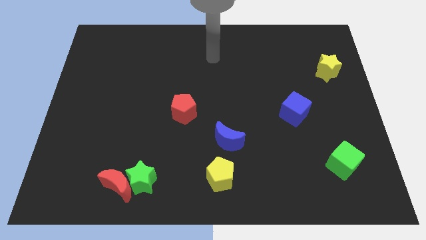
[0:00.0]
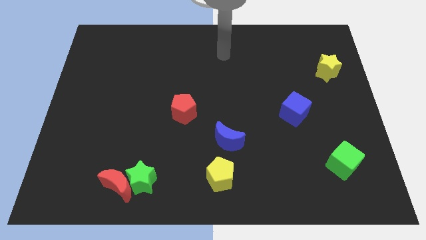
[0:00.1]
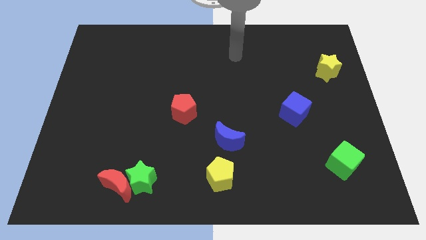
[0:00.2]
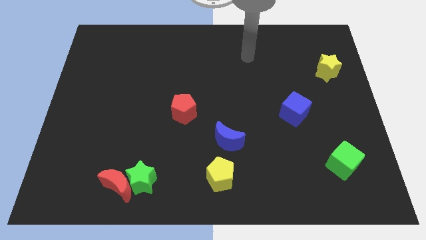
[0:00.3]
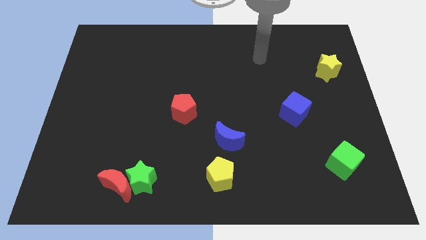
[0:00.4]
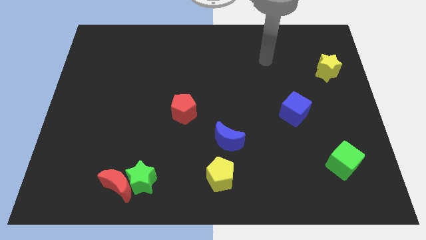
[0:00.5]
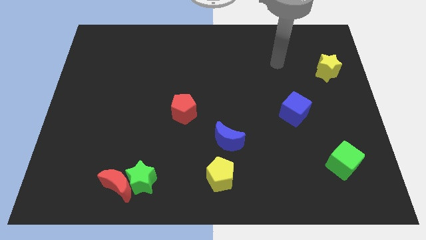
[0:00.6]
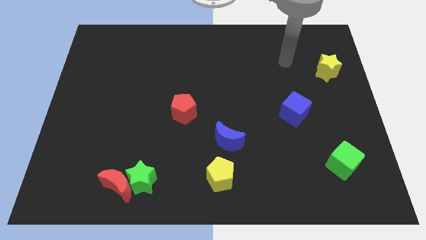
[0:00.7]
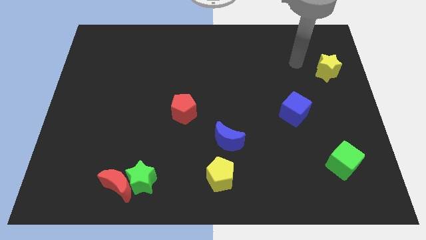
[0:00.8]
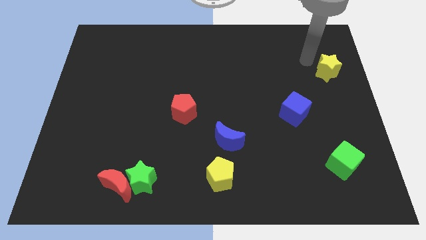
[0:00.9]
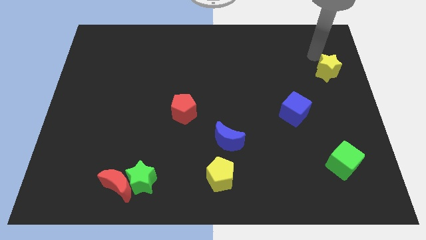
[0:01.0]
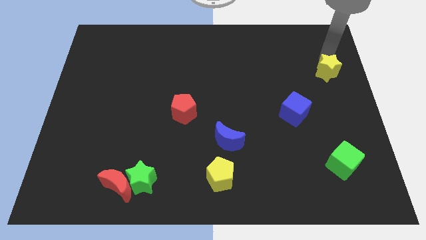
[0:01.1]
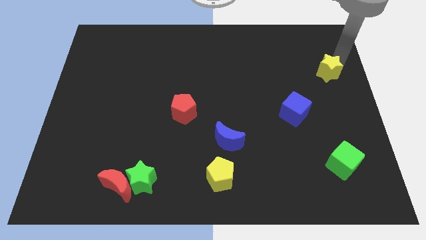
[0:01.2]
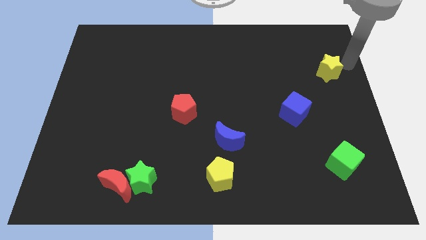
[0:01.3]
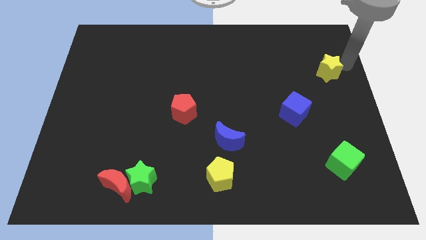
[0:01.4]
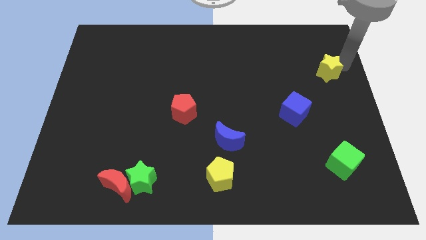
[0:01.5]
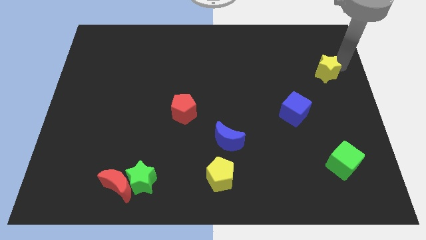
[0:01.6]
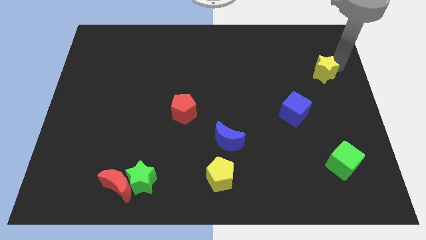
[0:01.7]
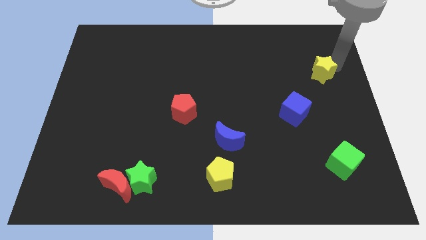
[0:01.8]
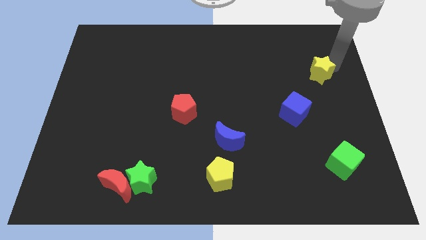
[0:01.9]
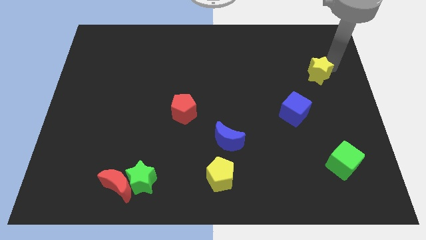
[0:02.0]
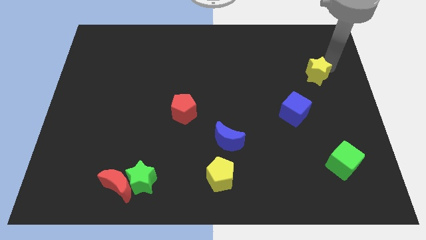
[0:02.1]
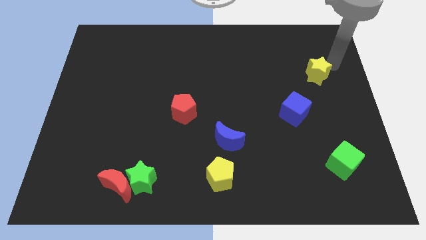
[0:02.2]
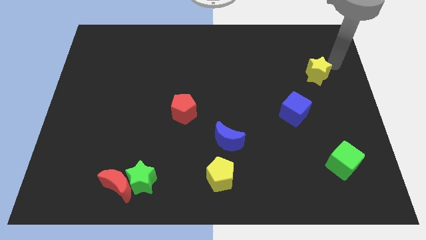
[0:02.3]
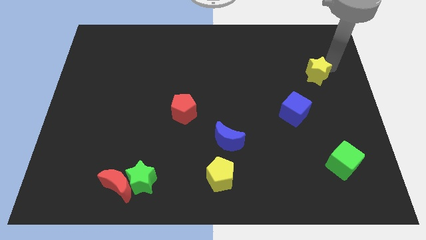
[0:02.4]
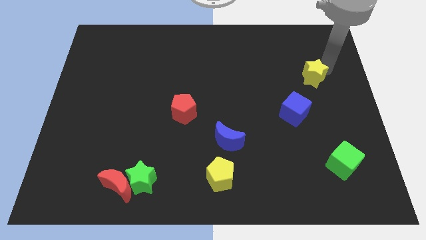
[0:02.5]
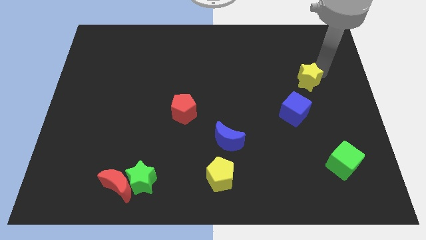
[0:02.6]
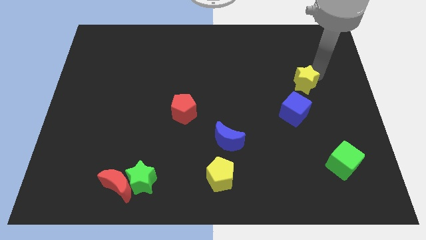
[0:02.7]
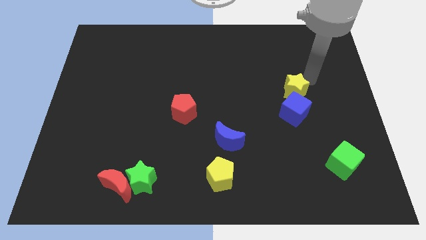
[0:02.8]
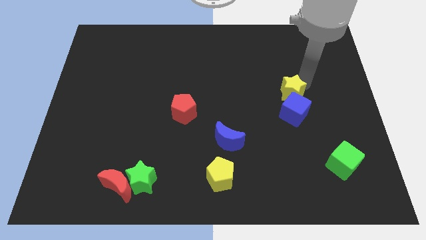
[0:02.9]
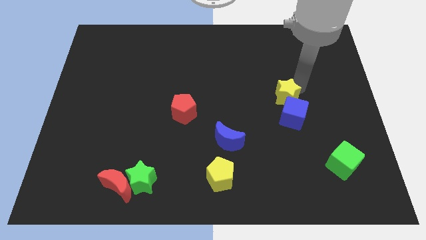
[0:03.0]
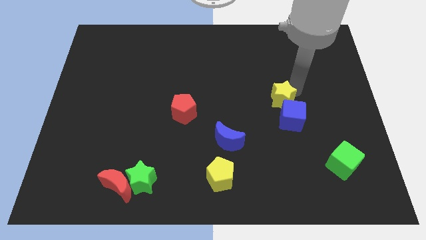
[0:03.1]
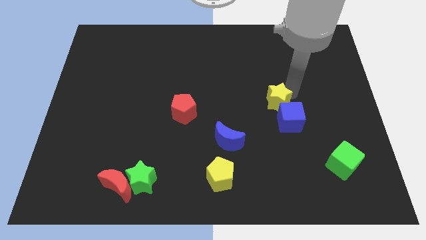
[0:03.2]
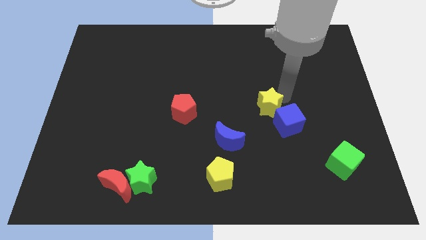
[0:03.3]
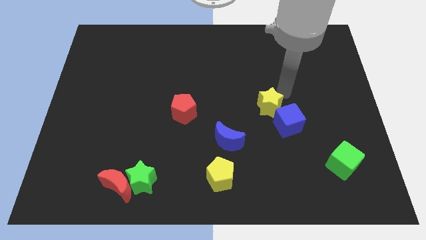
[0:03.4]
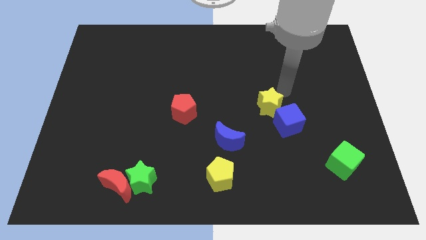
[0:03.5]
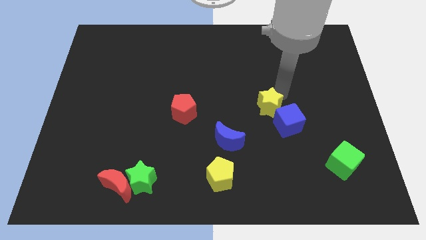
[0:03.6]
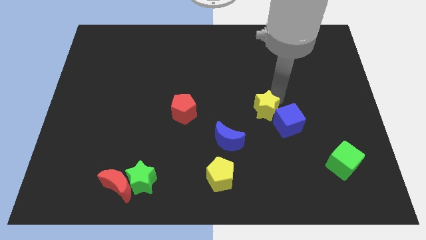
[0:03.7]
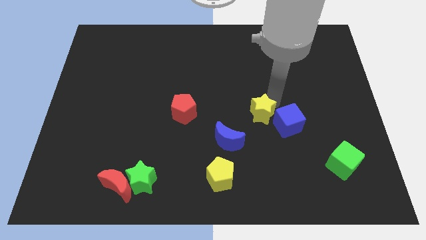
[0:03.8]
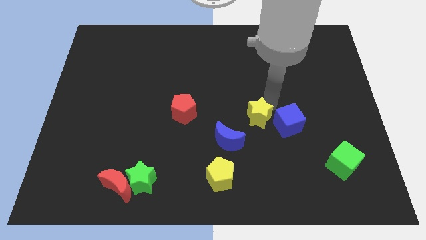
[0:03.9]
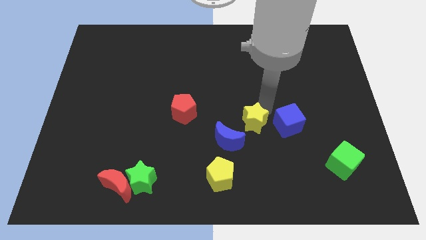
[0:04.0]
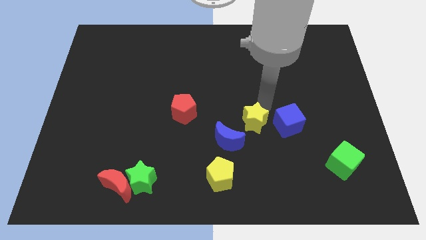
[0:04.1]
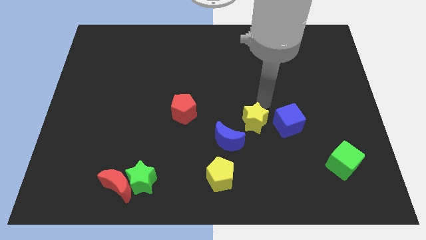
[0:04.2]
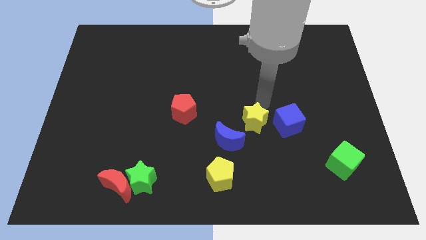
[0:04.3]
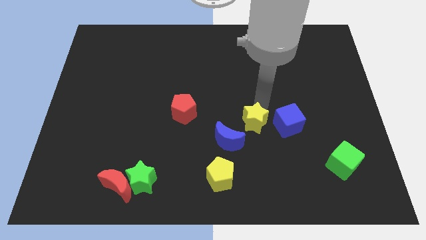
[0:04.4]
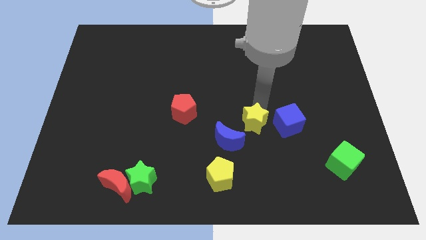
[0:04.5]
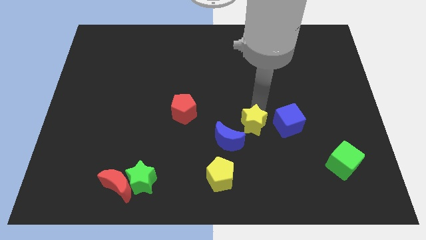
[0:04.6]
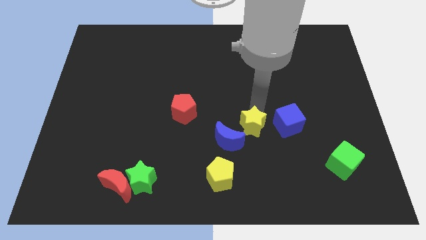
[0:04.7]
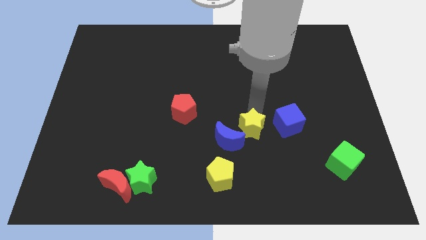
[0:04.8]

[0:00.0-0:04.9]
slide the yellow star towards the blue moon

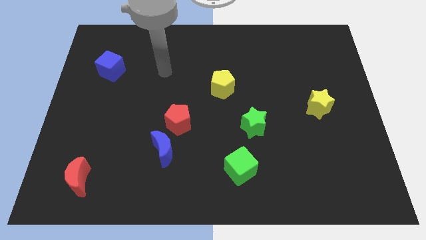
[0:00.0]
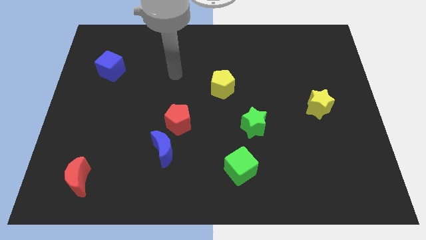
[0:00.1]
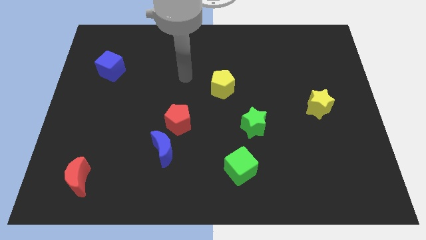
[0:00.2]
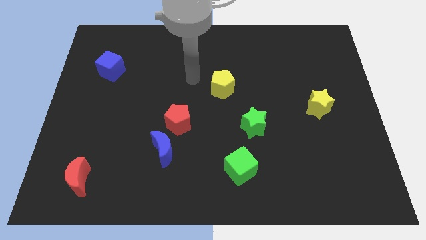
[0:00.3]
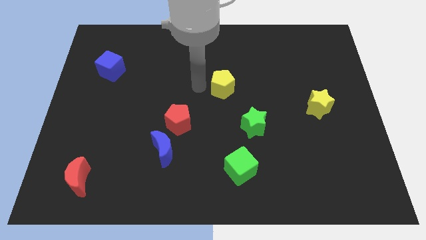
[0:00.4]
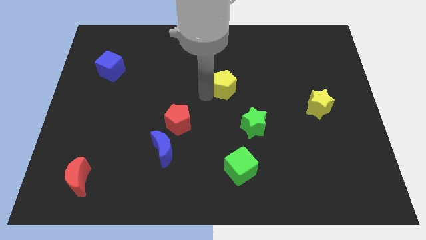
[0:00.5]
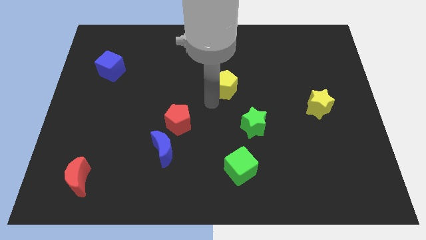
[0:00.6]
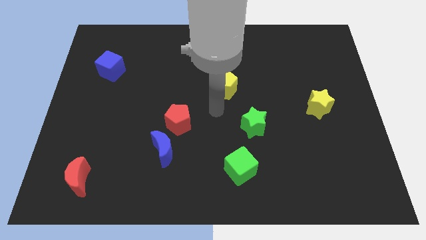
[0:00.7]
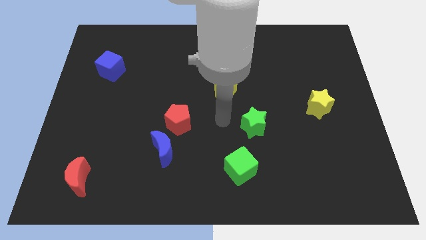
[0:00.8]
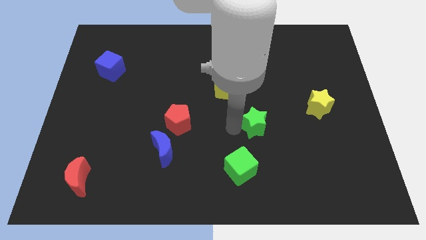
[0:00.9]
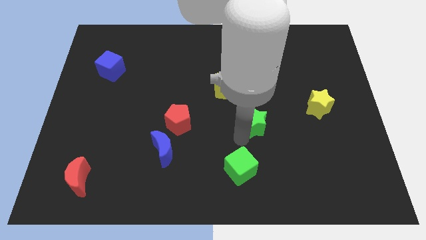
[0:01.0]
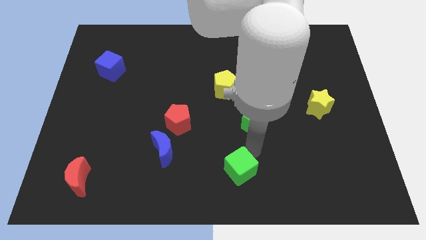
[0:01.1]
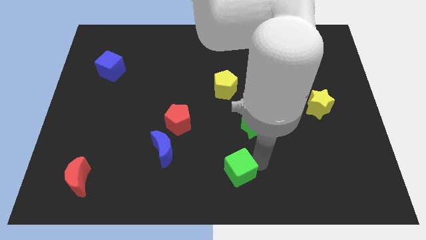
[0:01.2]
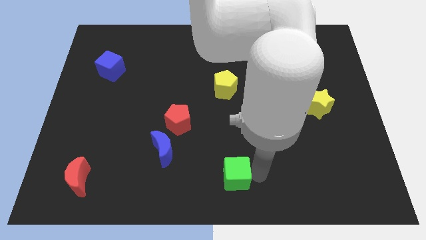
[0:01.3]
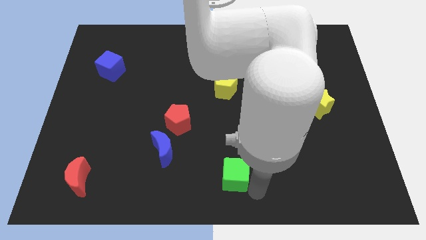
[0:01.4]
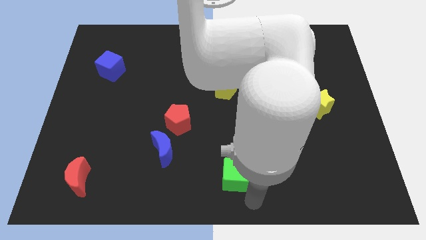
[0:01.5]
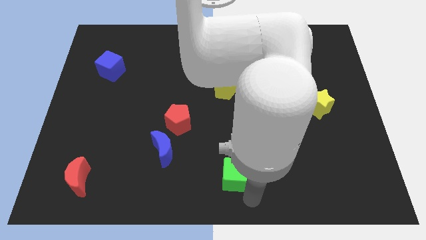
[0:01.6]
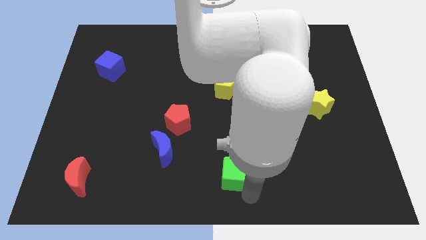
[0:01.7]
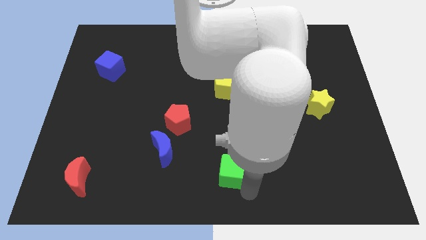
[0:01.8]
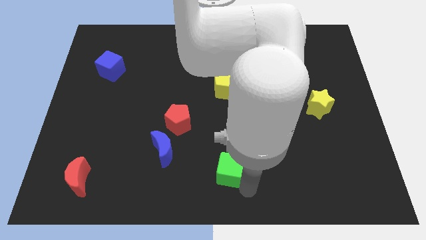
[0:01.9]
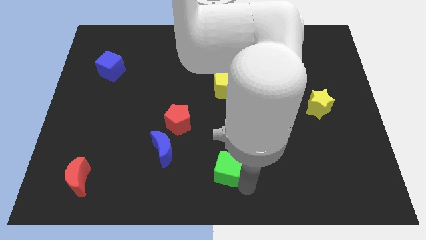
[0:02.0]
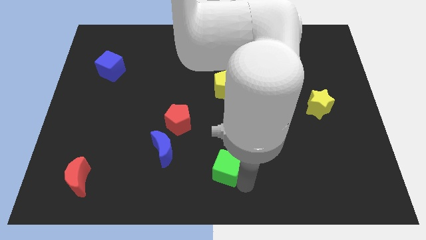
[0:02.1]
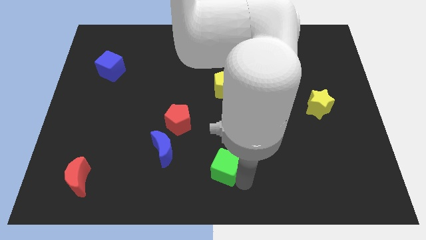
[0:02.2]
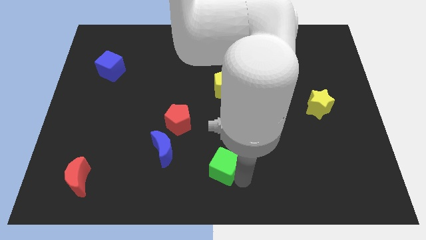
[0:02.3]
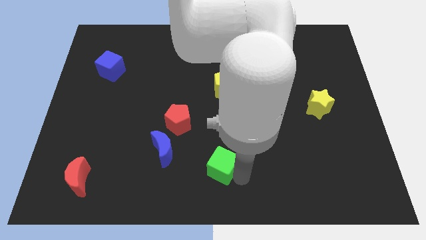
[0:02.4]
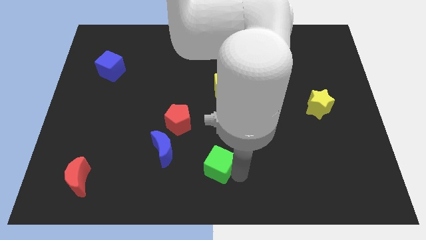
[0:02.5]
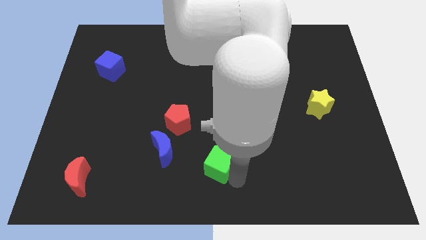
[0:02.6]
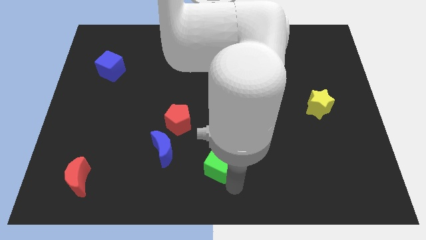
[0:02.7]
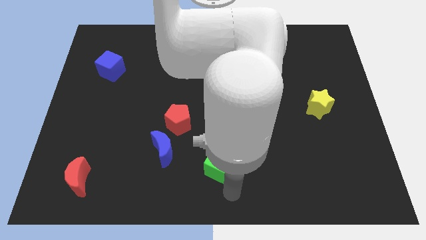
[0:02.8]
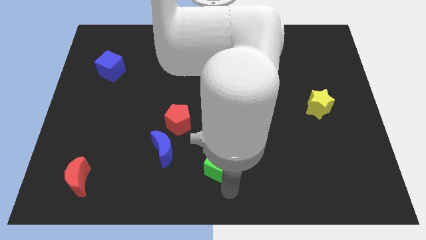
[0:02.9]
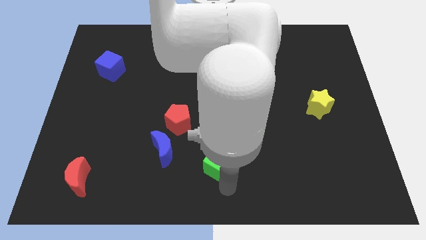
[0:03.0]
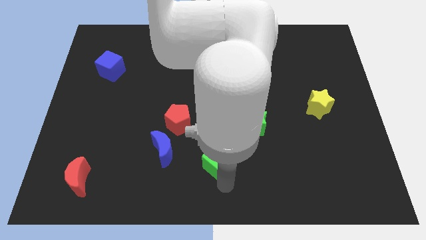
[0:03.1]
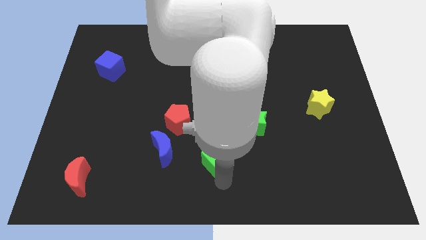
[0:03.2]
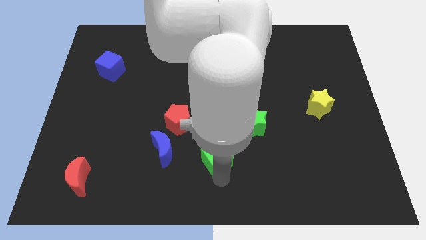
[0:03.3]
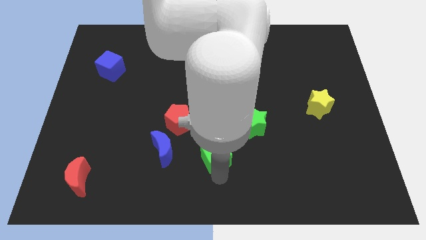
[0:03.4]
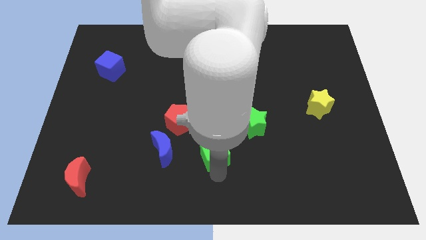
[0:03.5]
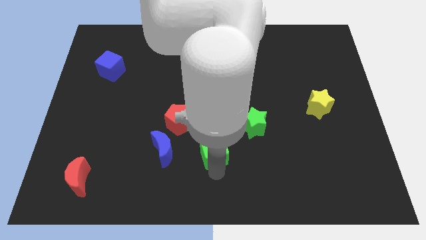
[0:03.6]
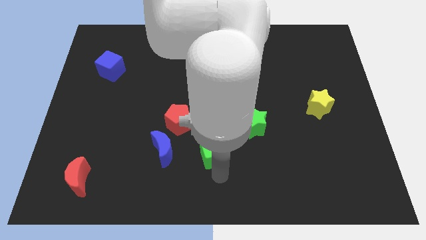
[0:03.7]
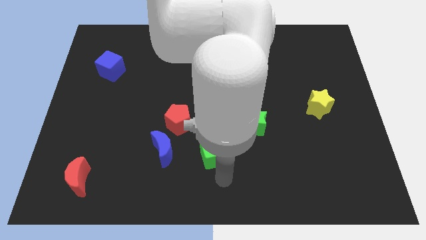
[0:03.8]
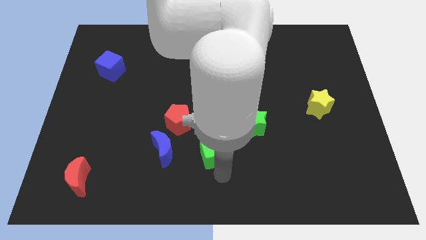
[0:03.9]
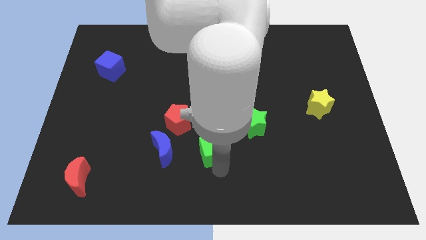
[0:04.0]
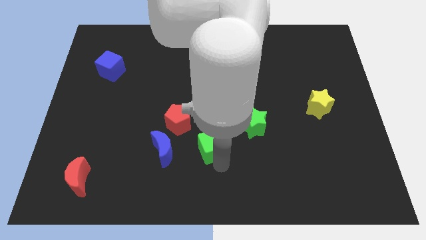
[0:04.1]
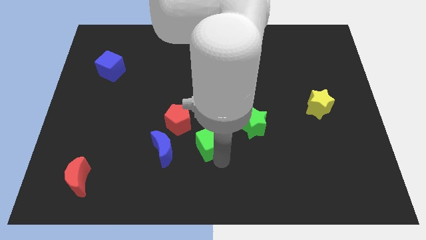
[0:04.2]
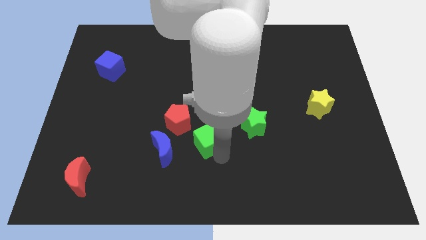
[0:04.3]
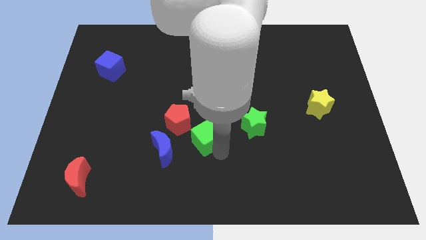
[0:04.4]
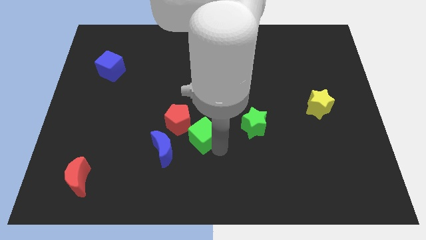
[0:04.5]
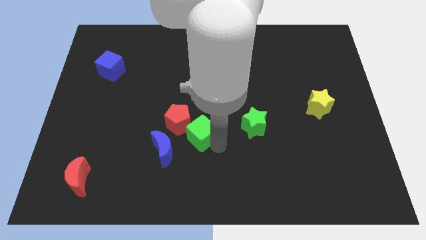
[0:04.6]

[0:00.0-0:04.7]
move the green cube to the red pentagon
